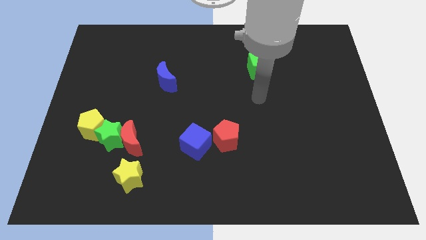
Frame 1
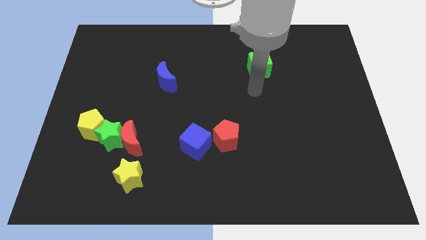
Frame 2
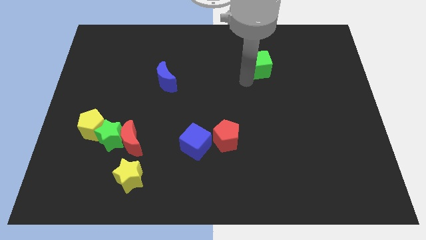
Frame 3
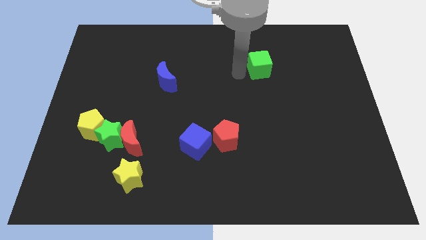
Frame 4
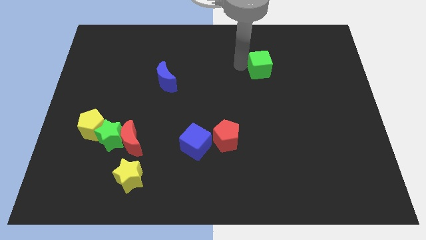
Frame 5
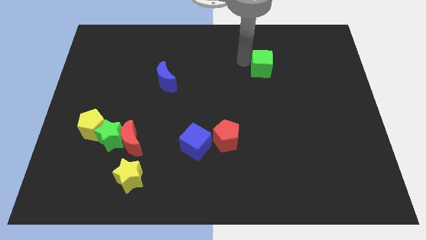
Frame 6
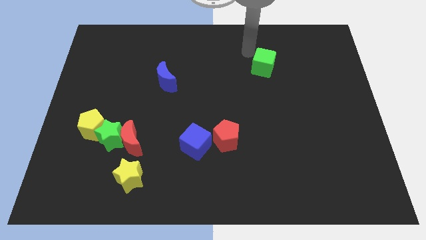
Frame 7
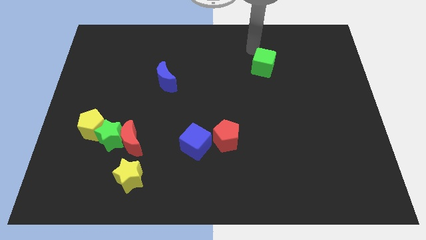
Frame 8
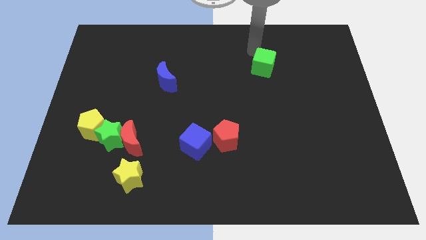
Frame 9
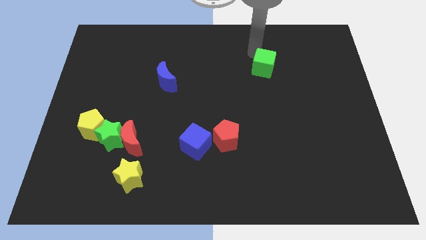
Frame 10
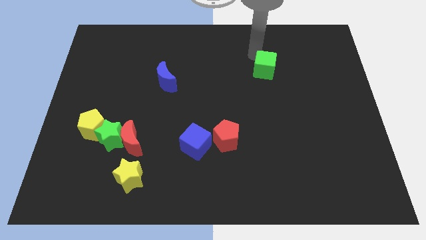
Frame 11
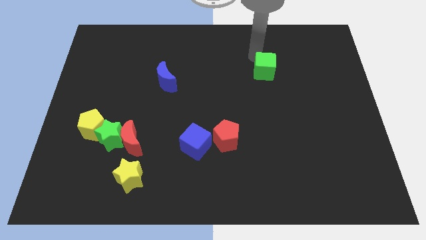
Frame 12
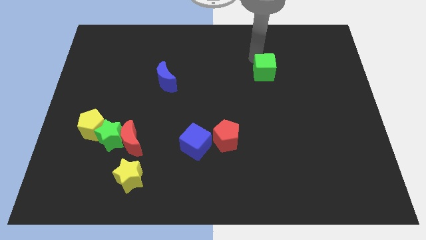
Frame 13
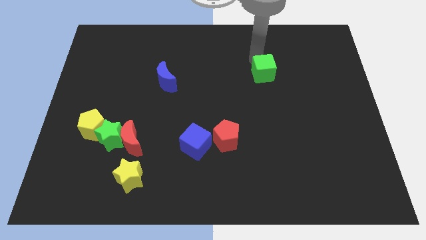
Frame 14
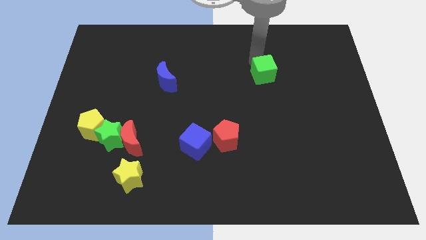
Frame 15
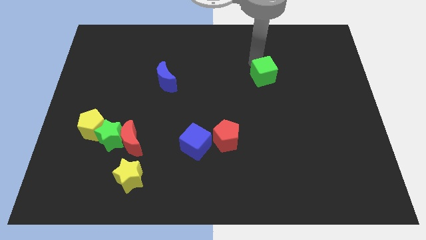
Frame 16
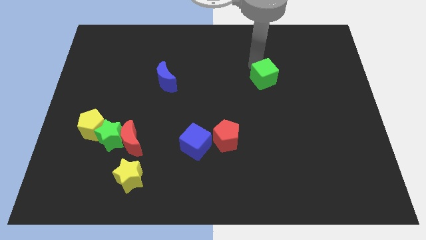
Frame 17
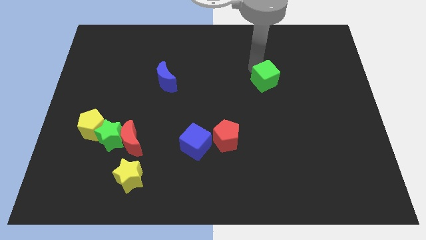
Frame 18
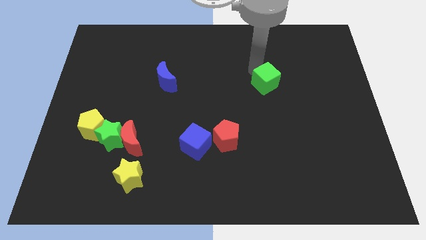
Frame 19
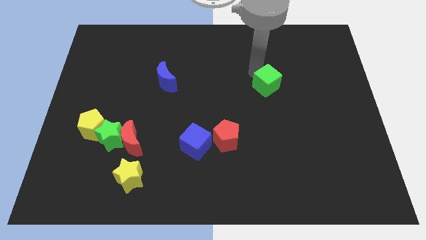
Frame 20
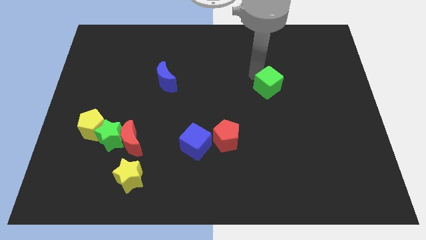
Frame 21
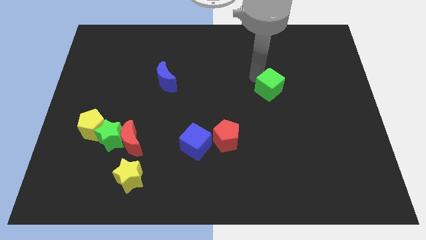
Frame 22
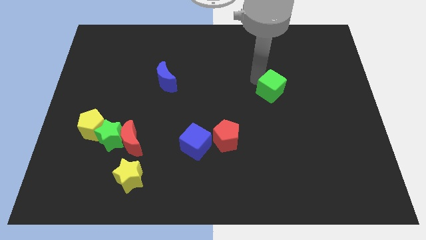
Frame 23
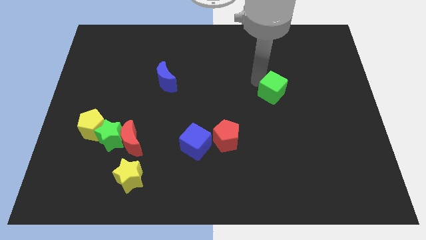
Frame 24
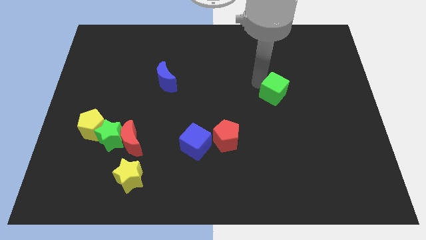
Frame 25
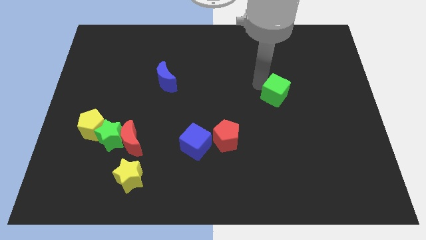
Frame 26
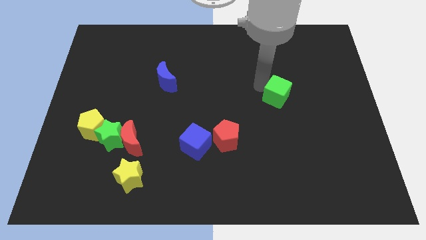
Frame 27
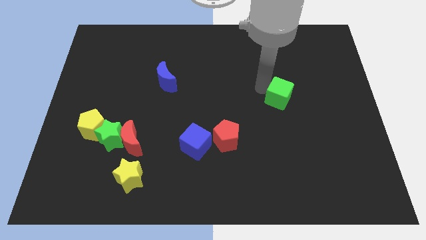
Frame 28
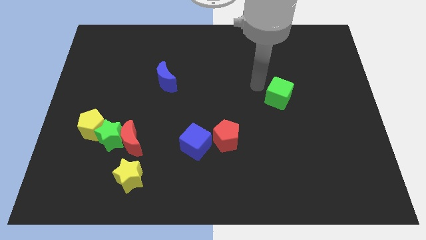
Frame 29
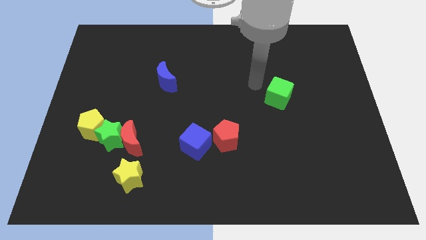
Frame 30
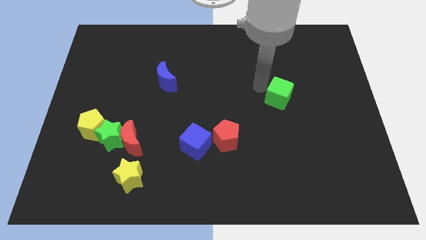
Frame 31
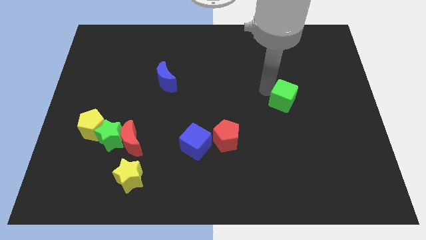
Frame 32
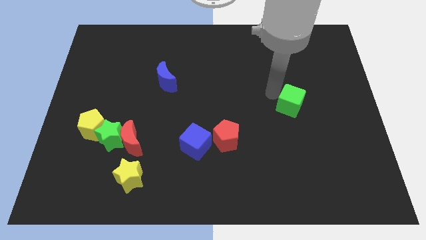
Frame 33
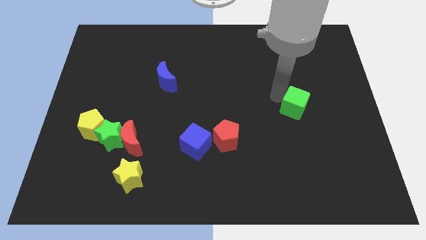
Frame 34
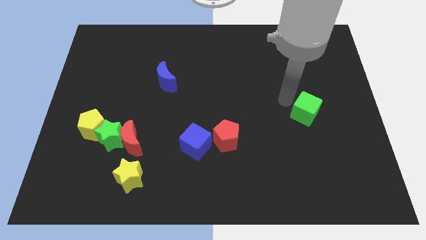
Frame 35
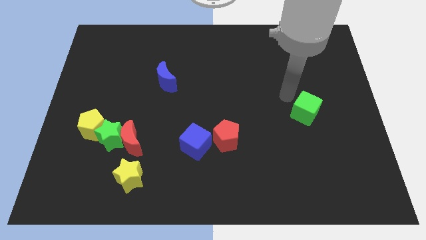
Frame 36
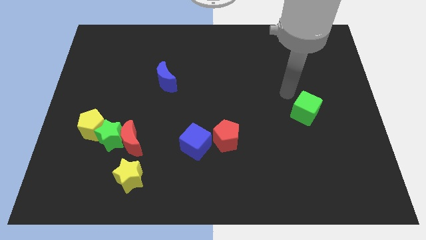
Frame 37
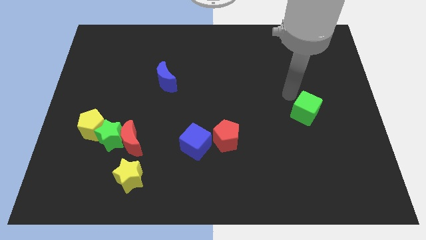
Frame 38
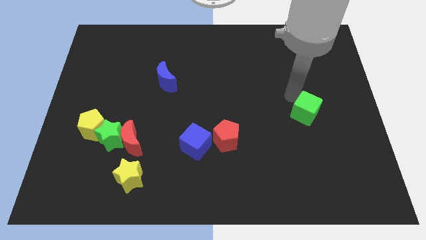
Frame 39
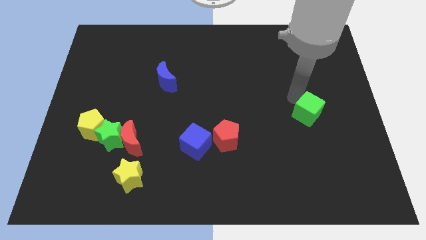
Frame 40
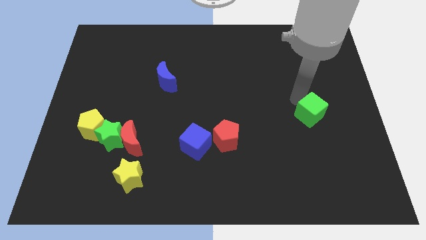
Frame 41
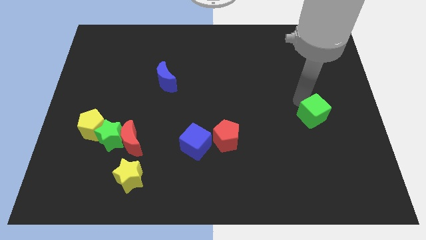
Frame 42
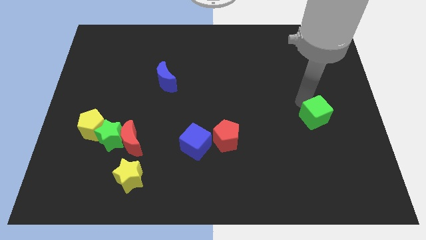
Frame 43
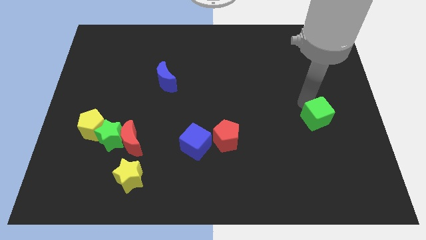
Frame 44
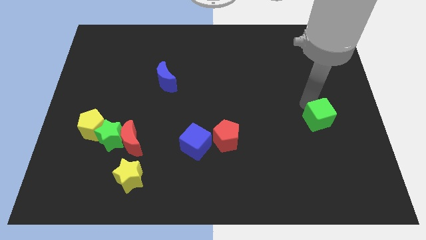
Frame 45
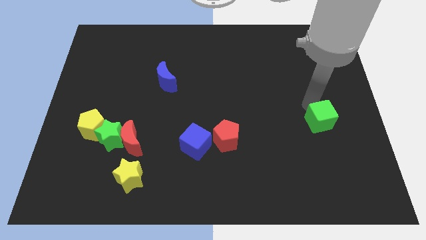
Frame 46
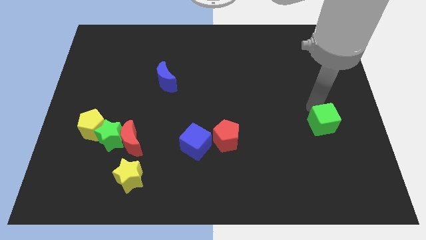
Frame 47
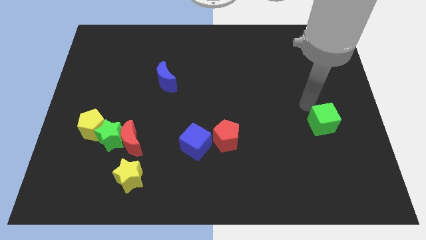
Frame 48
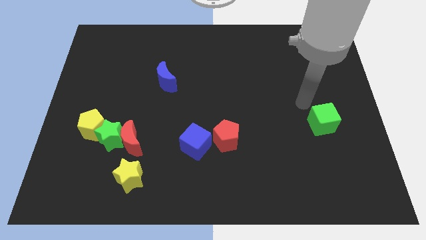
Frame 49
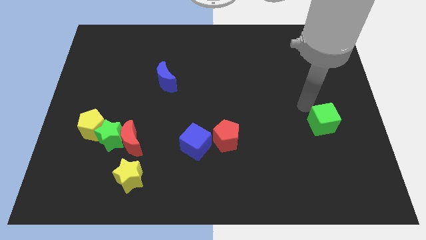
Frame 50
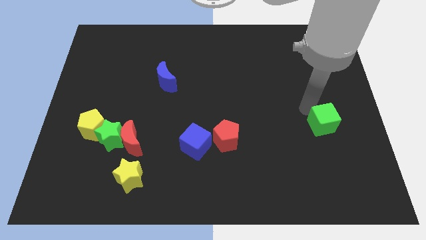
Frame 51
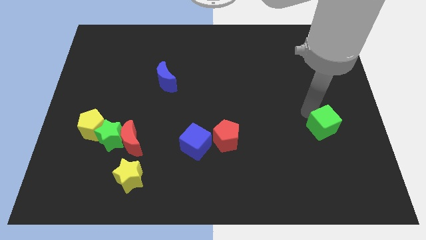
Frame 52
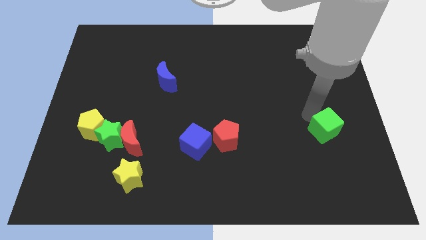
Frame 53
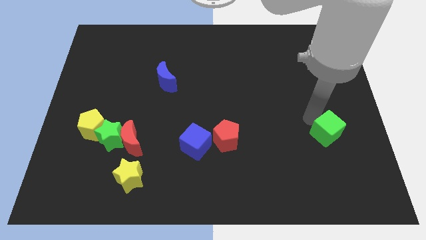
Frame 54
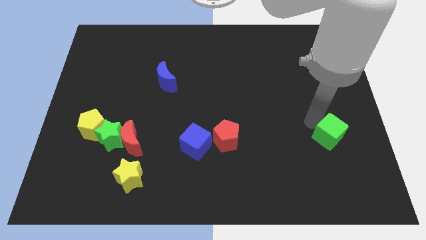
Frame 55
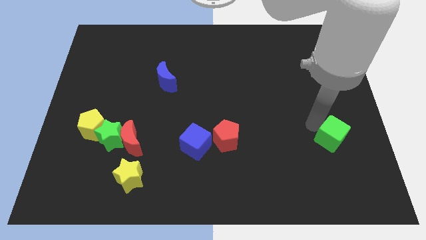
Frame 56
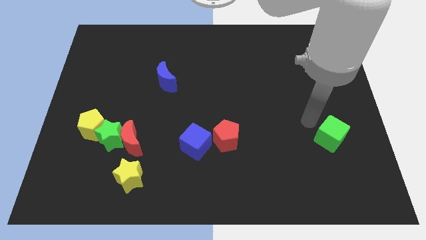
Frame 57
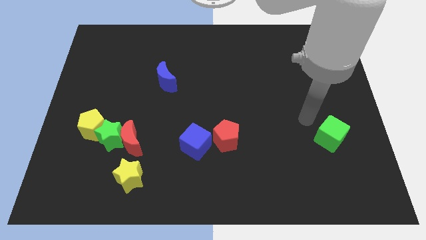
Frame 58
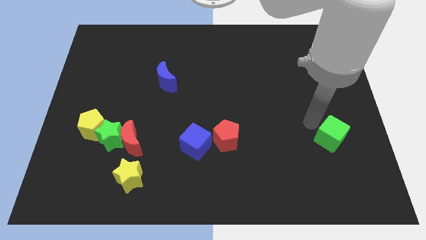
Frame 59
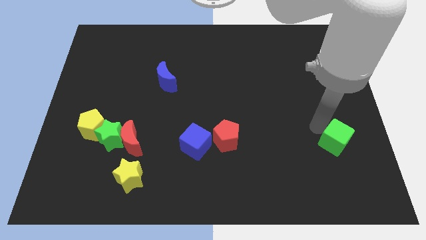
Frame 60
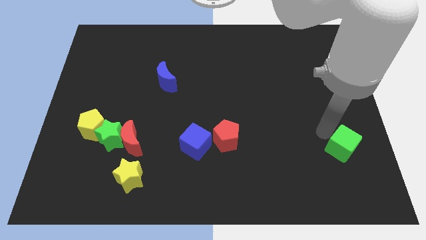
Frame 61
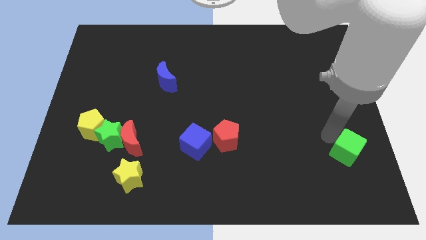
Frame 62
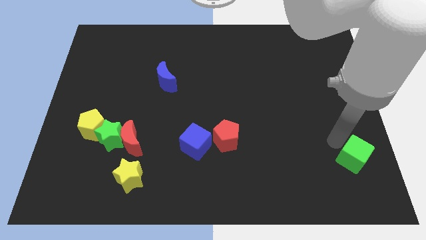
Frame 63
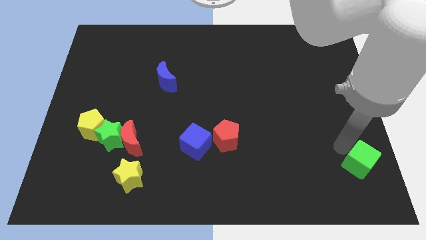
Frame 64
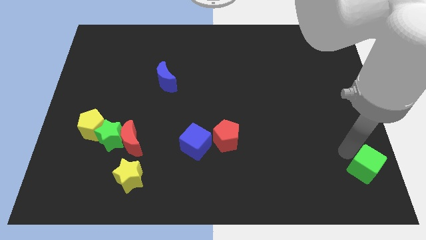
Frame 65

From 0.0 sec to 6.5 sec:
slide the green cube to the bottom right of the board
